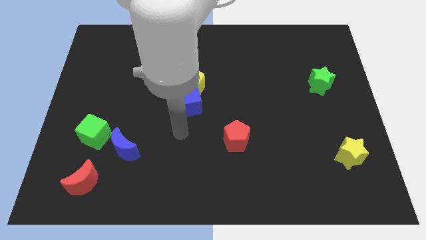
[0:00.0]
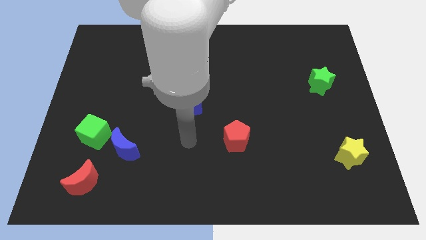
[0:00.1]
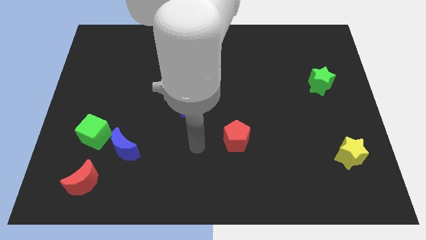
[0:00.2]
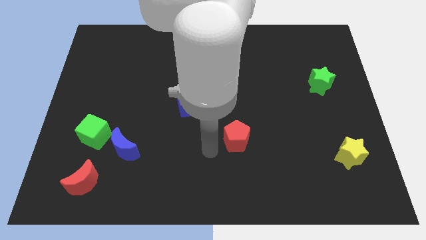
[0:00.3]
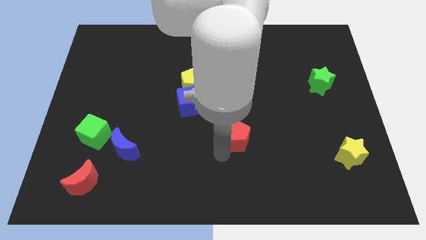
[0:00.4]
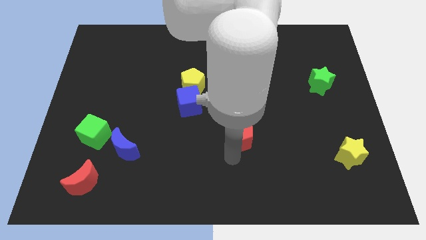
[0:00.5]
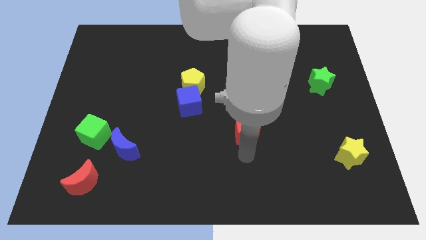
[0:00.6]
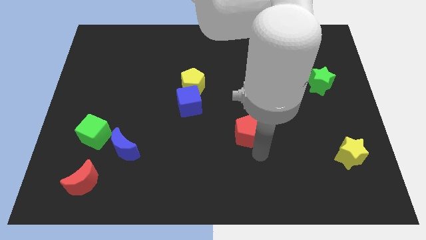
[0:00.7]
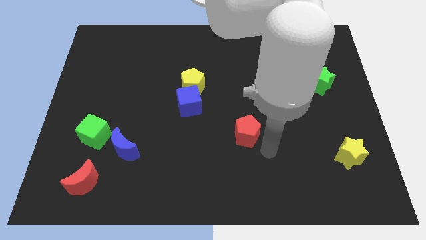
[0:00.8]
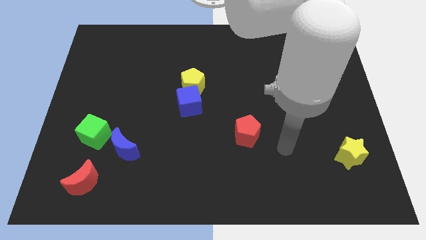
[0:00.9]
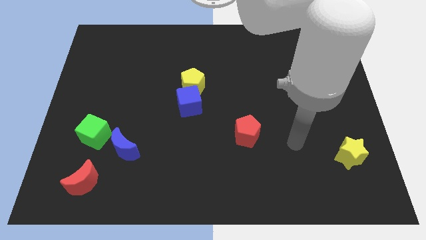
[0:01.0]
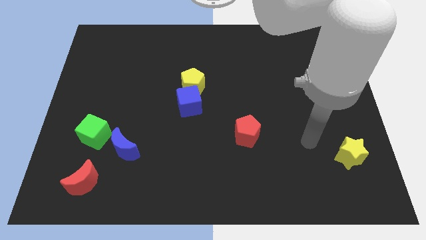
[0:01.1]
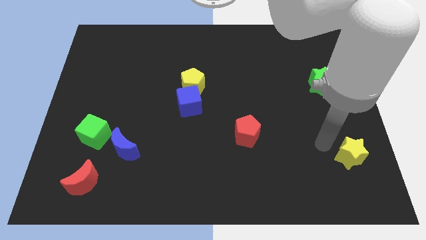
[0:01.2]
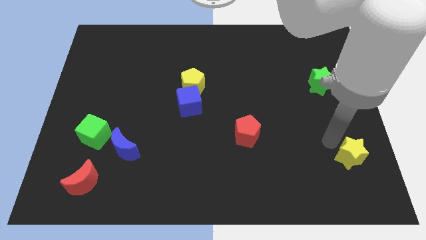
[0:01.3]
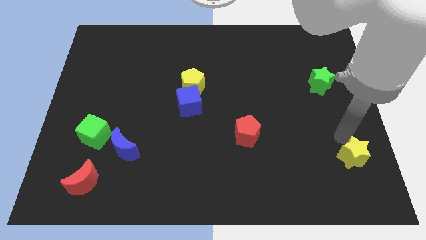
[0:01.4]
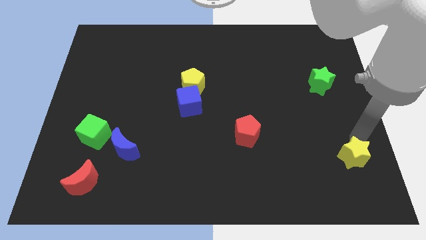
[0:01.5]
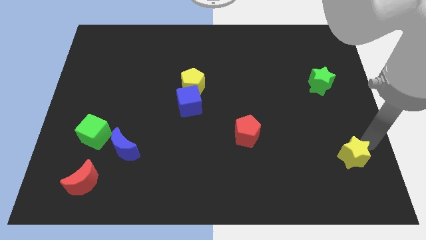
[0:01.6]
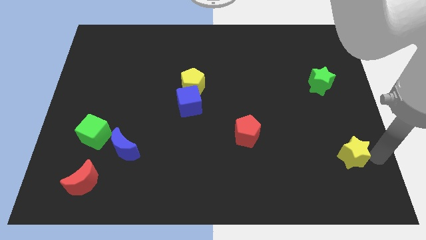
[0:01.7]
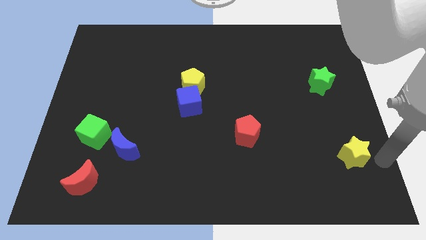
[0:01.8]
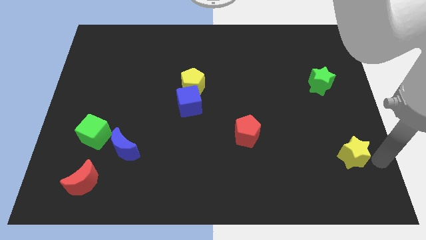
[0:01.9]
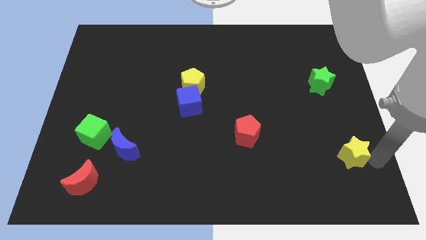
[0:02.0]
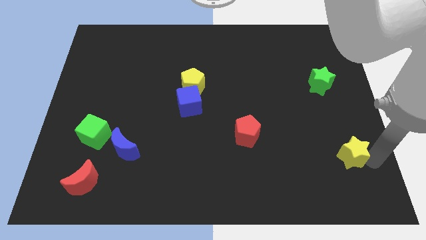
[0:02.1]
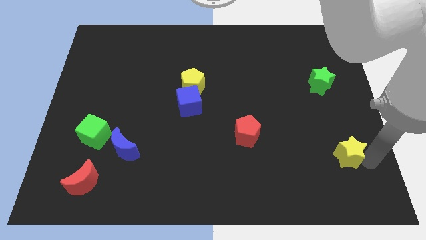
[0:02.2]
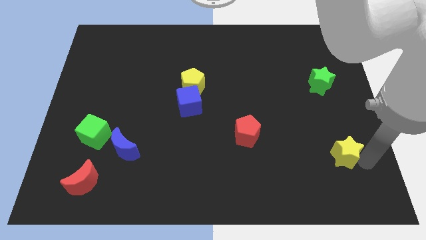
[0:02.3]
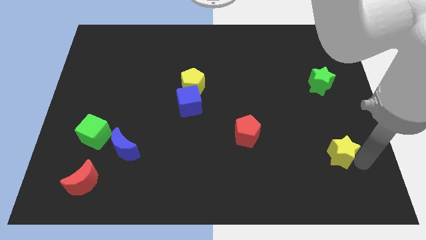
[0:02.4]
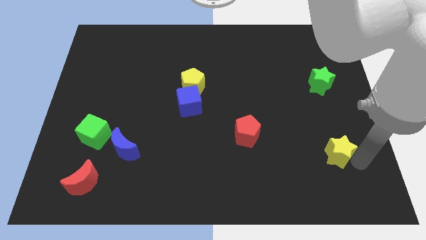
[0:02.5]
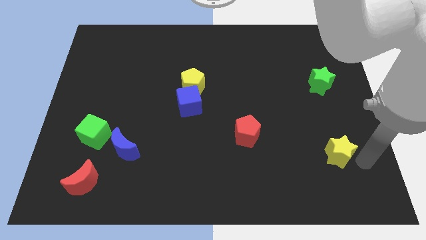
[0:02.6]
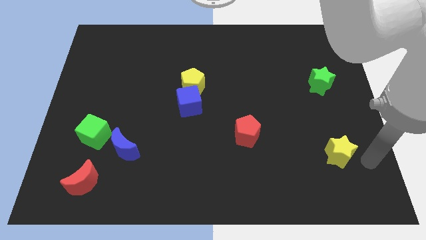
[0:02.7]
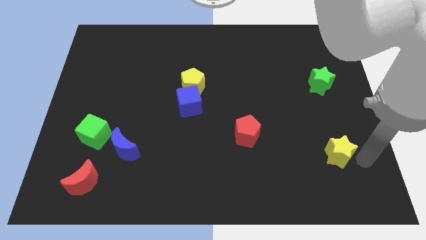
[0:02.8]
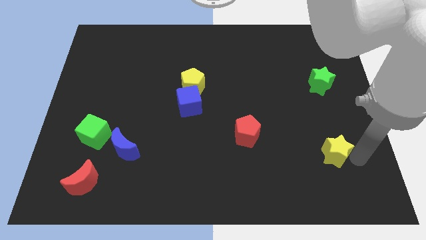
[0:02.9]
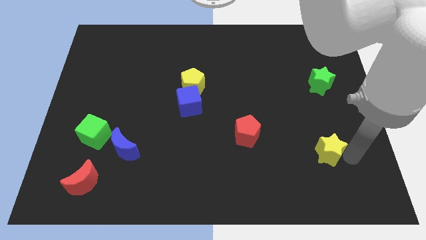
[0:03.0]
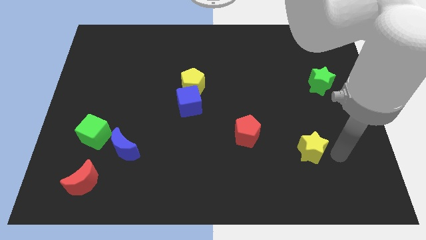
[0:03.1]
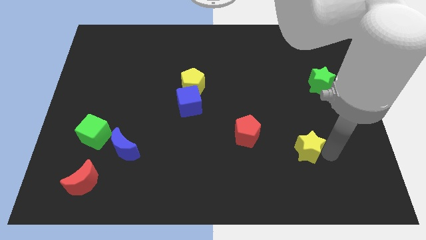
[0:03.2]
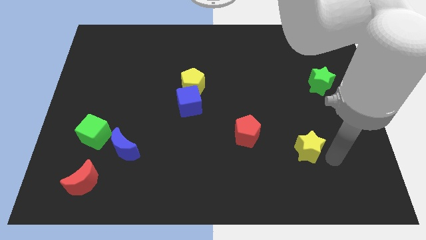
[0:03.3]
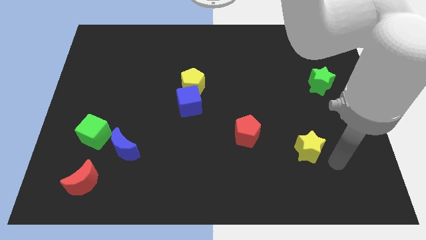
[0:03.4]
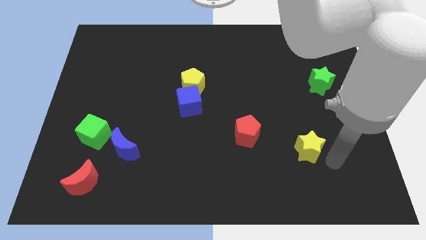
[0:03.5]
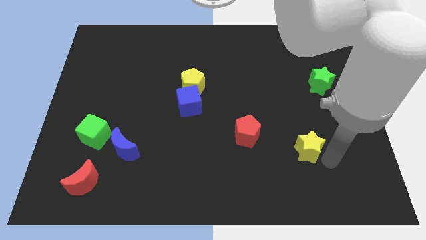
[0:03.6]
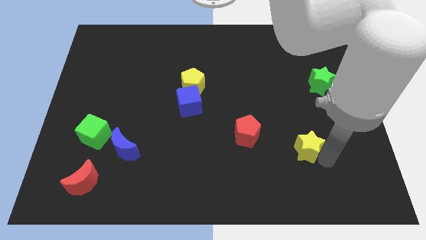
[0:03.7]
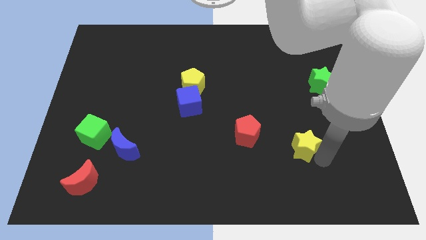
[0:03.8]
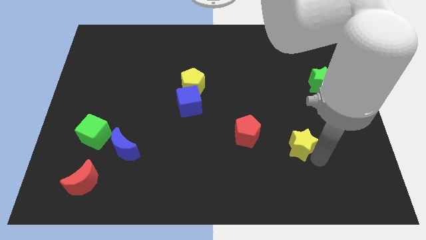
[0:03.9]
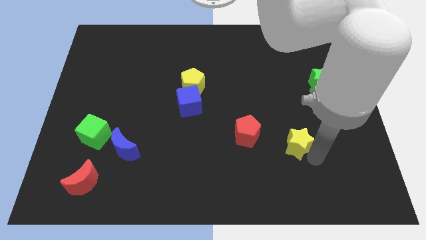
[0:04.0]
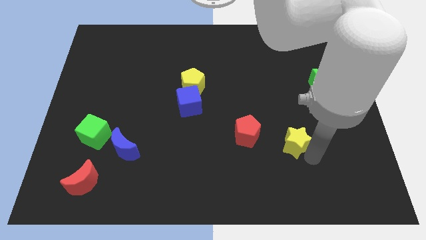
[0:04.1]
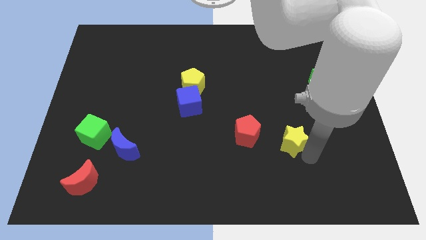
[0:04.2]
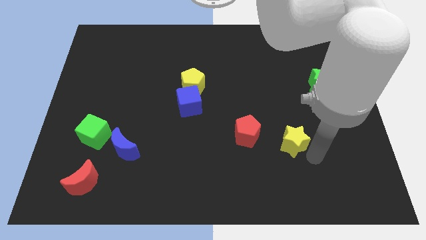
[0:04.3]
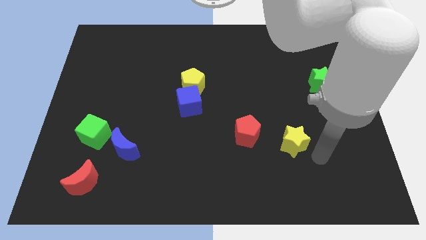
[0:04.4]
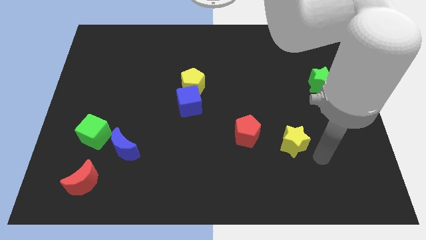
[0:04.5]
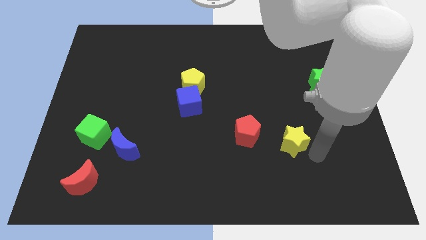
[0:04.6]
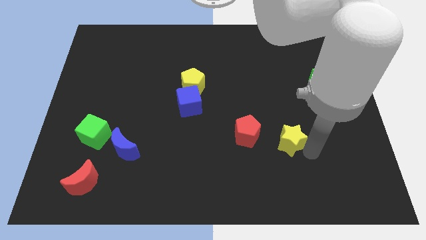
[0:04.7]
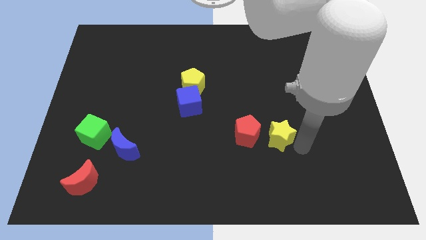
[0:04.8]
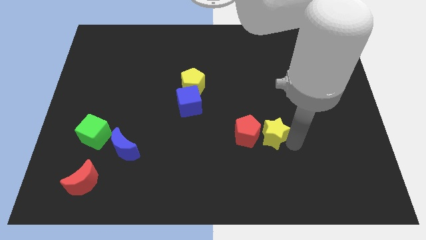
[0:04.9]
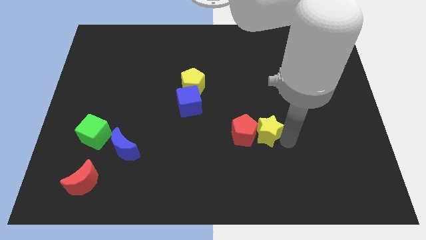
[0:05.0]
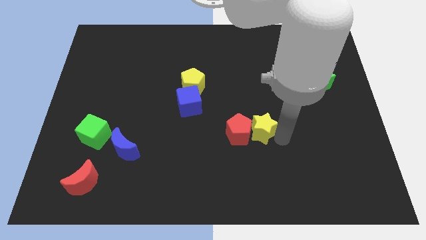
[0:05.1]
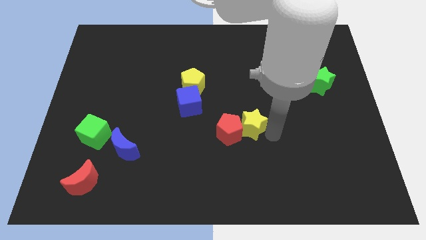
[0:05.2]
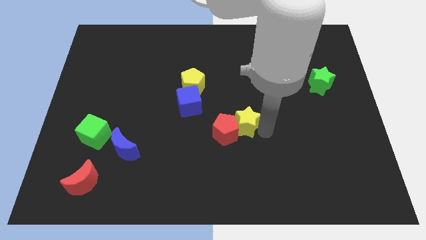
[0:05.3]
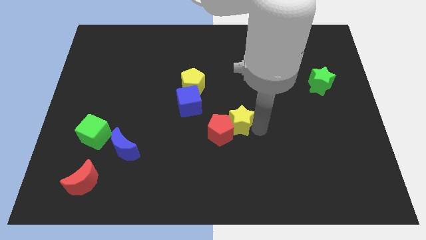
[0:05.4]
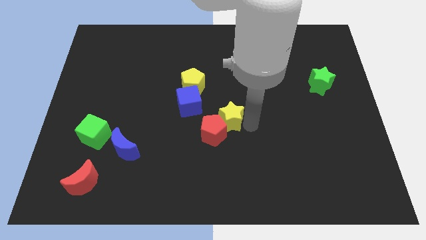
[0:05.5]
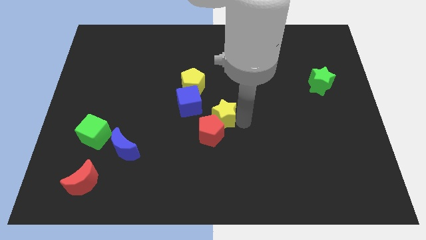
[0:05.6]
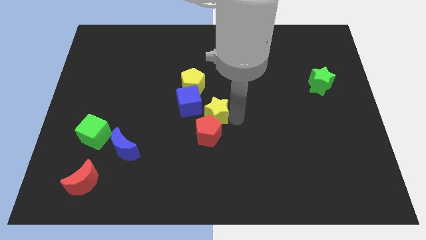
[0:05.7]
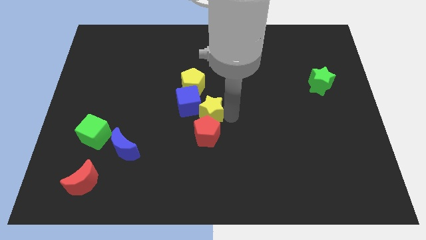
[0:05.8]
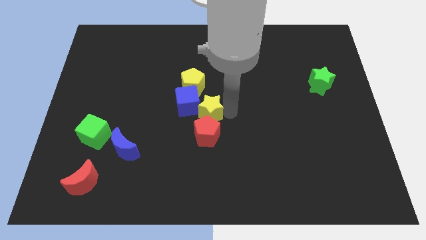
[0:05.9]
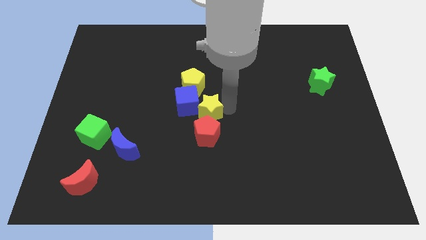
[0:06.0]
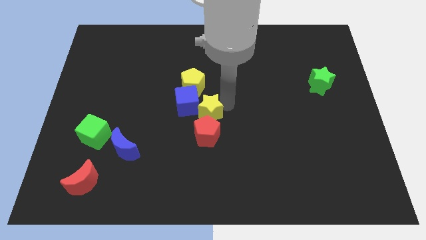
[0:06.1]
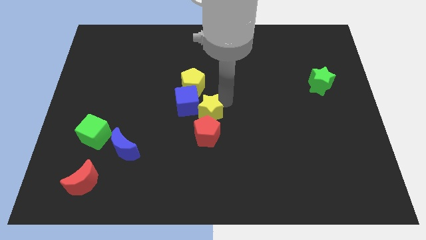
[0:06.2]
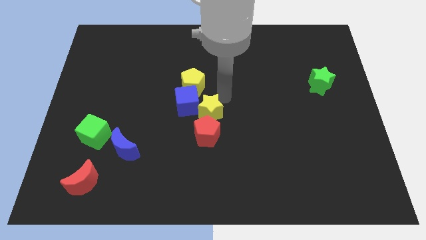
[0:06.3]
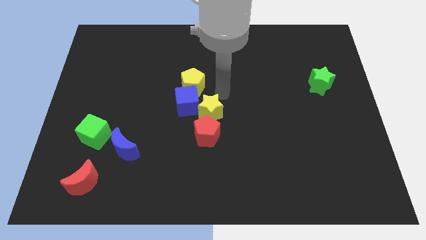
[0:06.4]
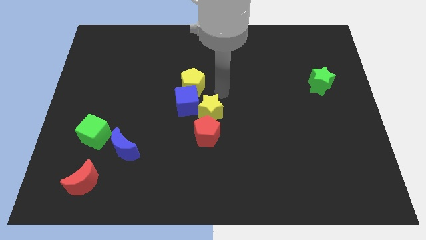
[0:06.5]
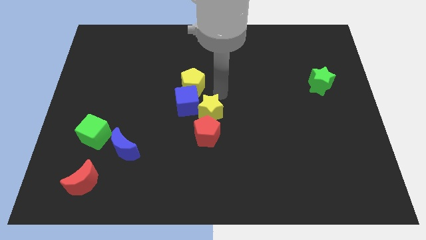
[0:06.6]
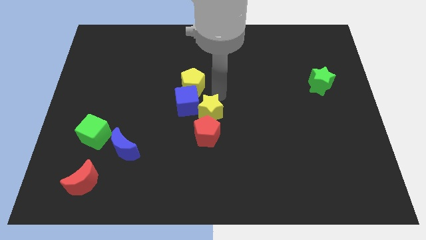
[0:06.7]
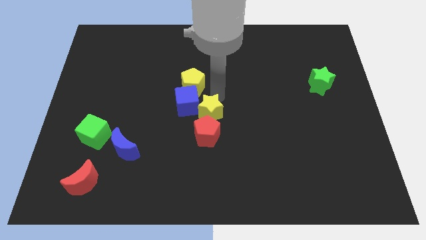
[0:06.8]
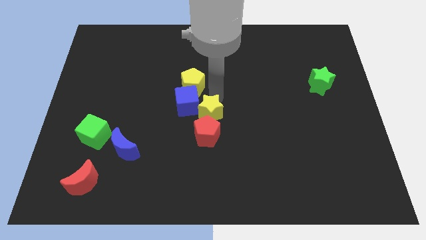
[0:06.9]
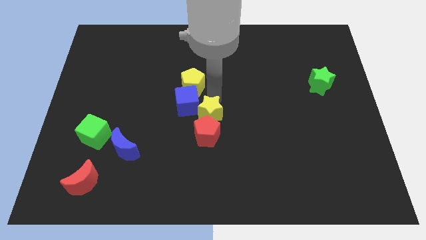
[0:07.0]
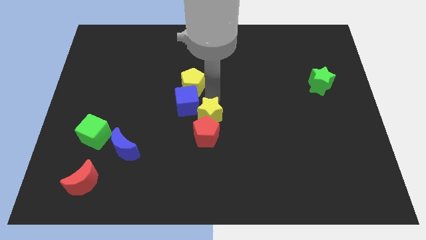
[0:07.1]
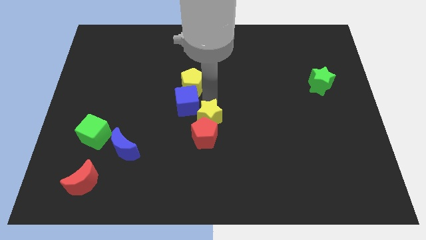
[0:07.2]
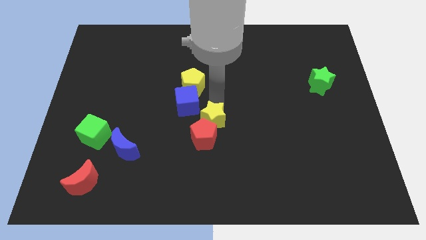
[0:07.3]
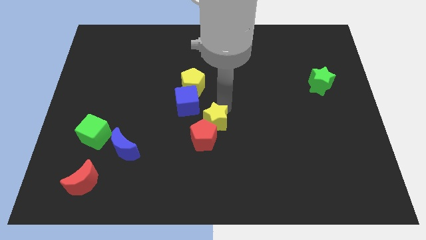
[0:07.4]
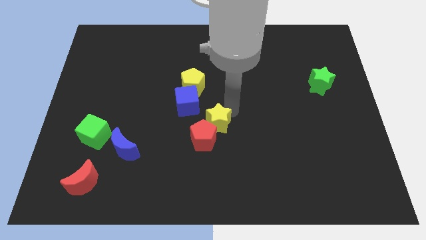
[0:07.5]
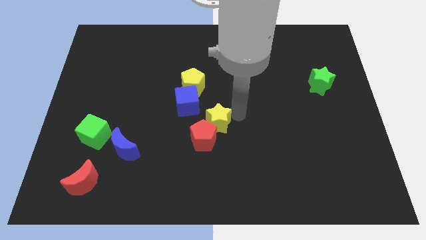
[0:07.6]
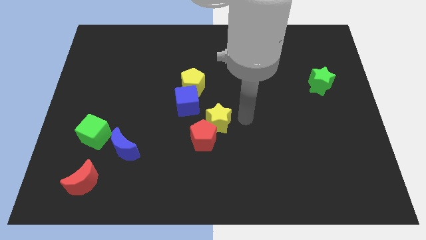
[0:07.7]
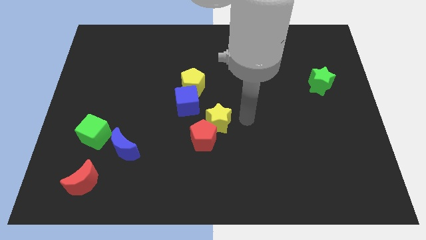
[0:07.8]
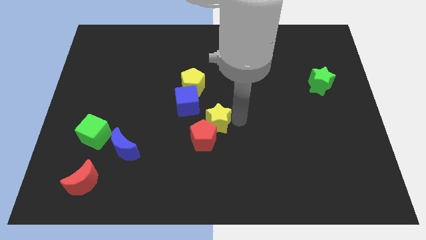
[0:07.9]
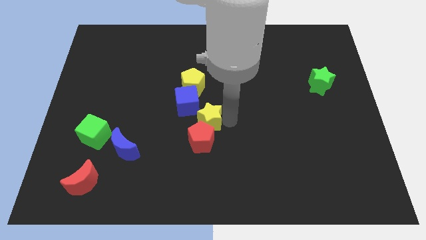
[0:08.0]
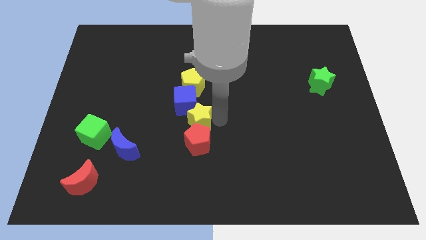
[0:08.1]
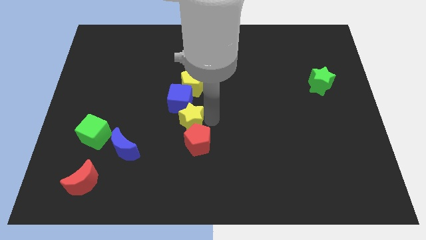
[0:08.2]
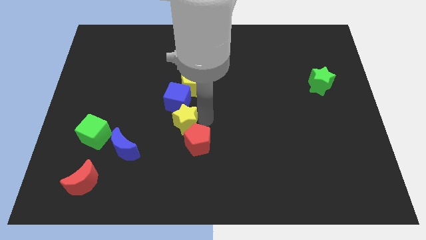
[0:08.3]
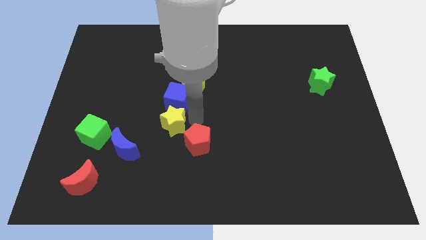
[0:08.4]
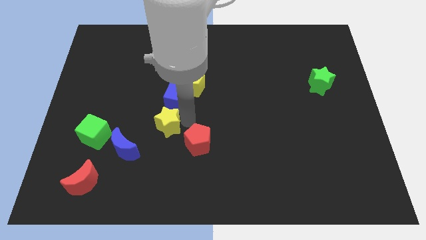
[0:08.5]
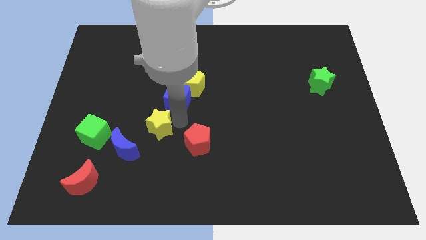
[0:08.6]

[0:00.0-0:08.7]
push the yellow star right of the green cube
